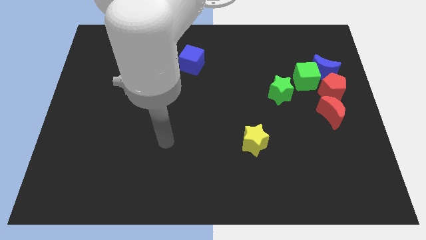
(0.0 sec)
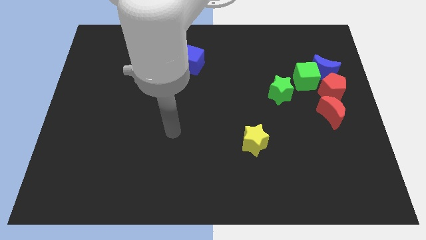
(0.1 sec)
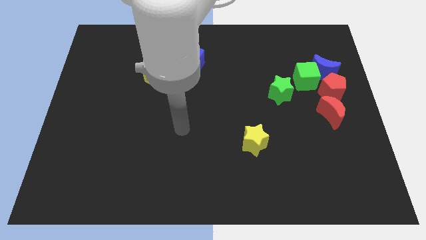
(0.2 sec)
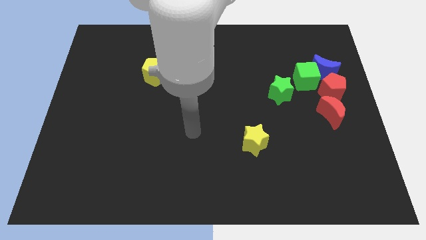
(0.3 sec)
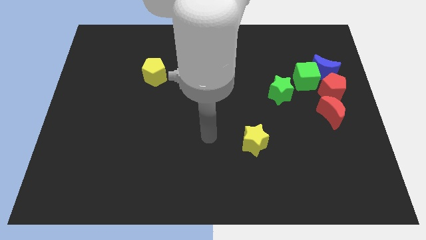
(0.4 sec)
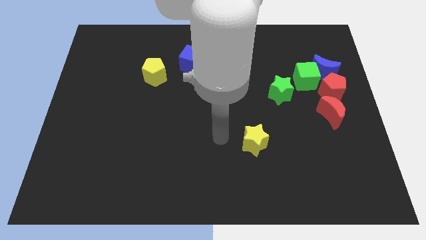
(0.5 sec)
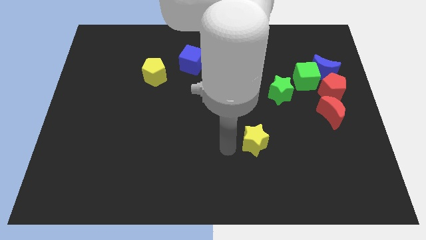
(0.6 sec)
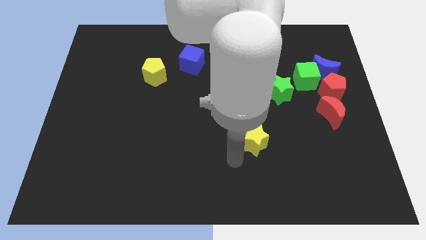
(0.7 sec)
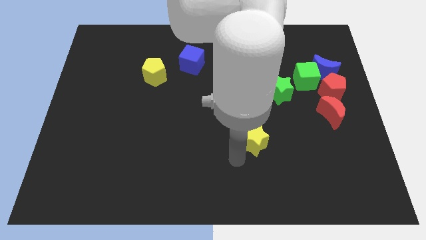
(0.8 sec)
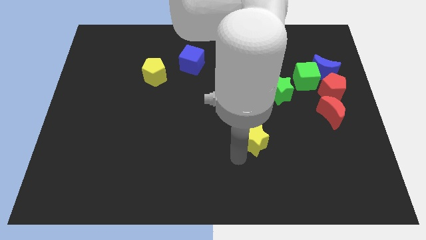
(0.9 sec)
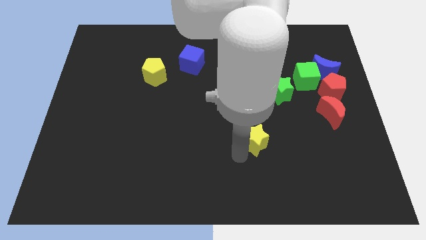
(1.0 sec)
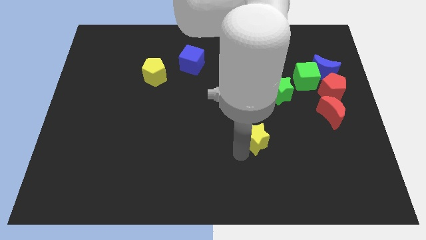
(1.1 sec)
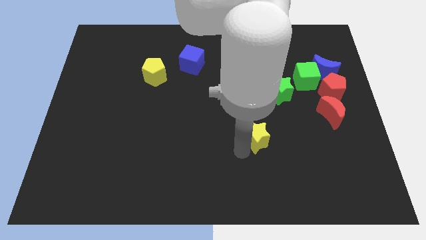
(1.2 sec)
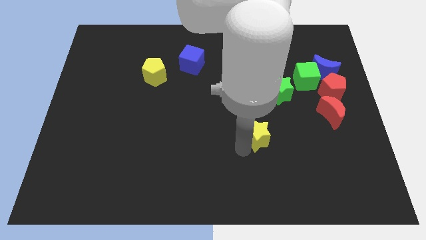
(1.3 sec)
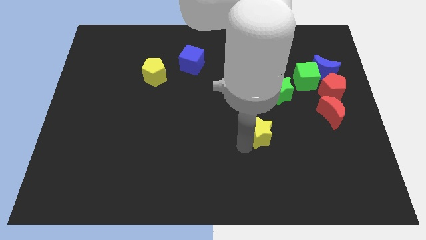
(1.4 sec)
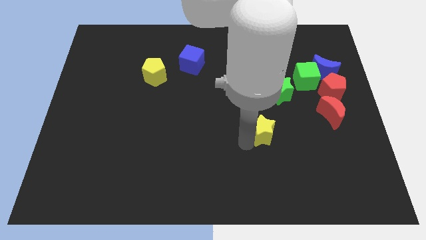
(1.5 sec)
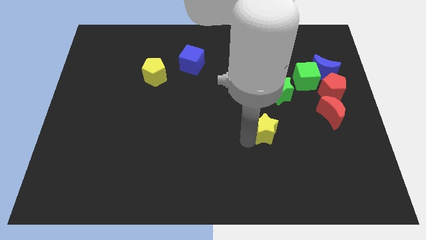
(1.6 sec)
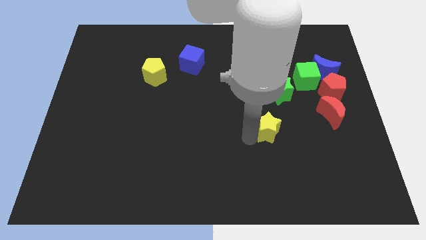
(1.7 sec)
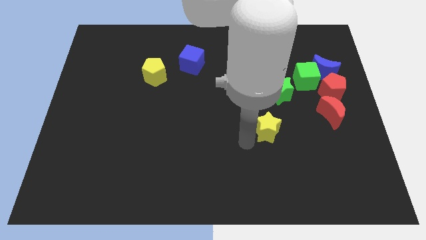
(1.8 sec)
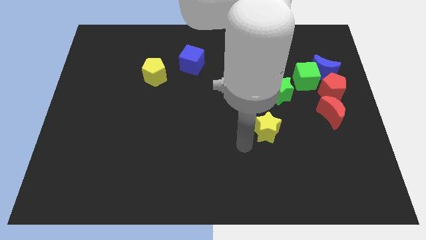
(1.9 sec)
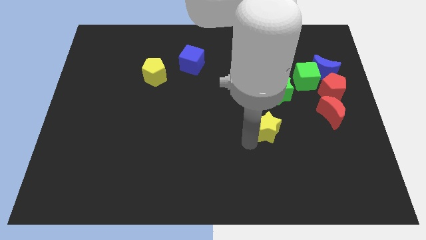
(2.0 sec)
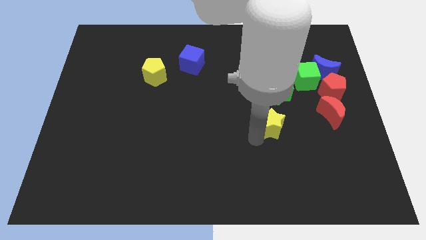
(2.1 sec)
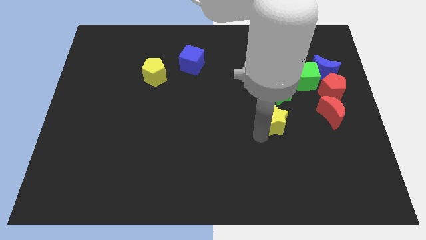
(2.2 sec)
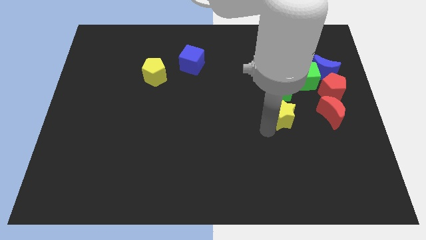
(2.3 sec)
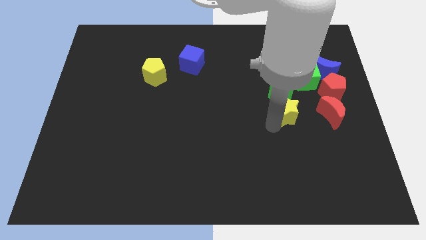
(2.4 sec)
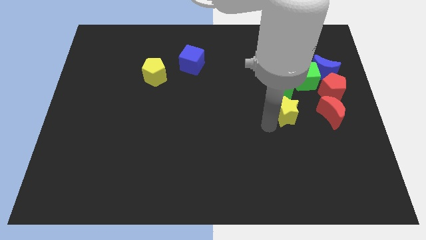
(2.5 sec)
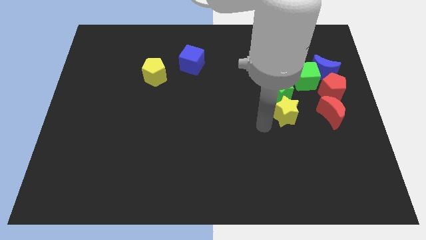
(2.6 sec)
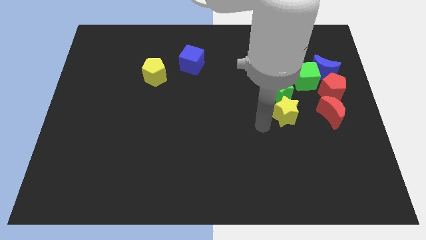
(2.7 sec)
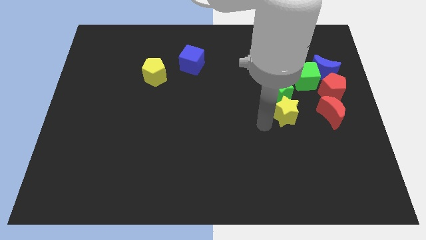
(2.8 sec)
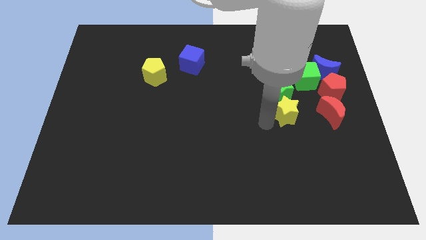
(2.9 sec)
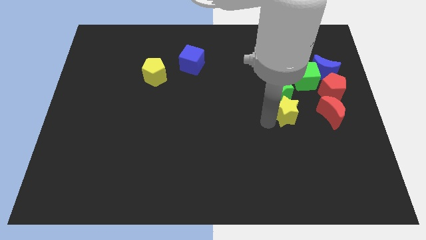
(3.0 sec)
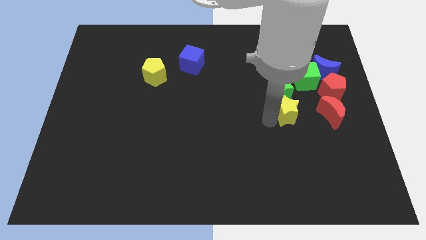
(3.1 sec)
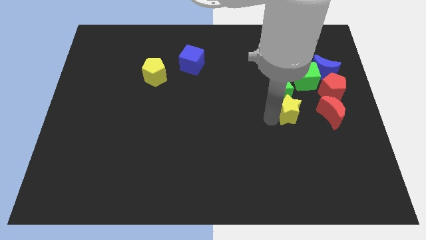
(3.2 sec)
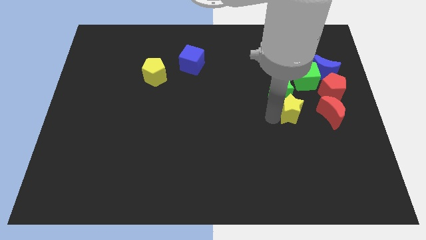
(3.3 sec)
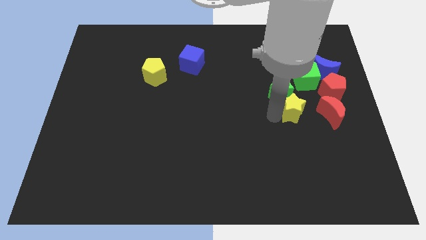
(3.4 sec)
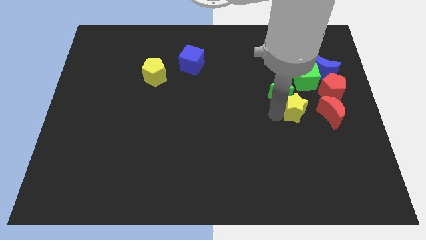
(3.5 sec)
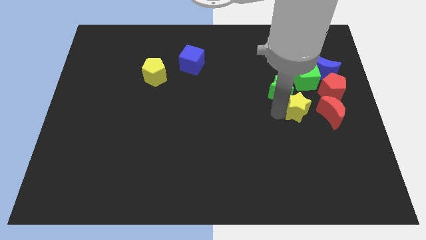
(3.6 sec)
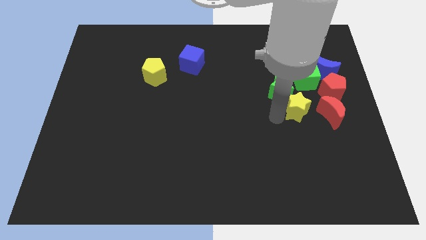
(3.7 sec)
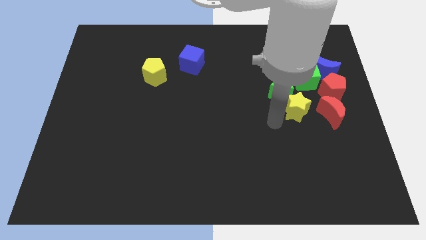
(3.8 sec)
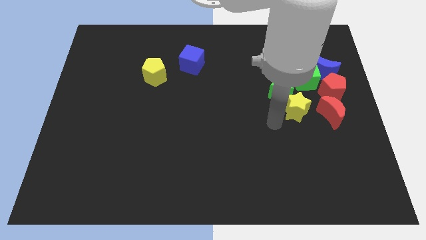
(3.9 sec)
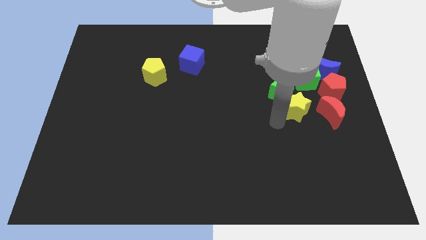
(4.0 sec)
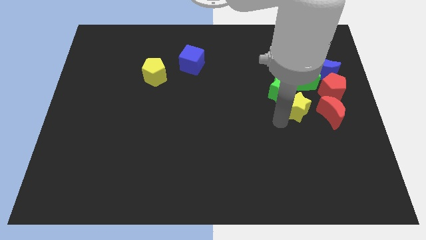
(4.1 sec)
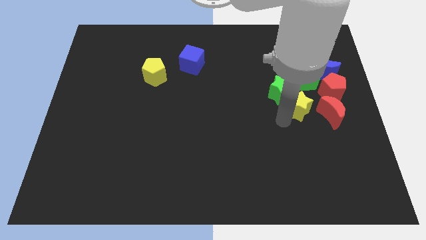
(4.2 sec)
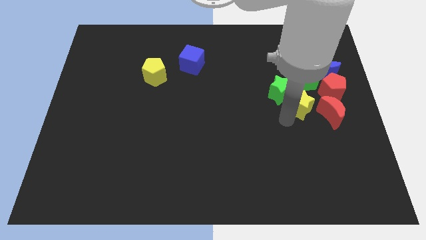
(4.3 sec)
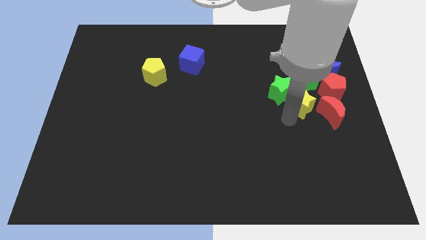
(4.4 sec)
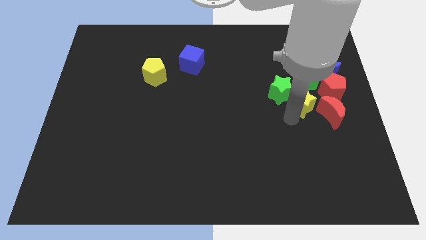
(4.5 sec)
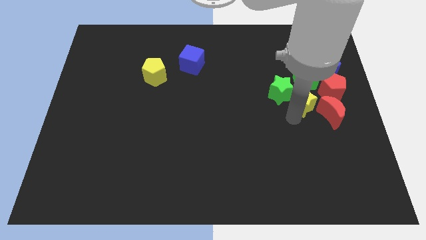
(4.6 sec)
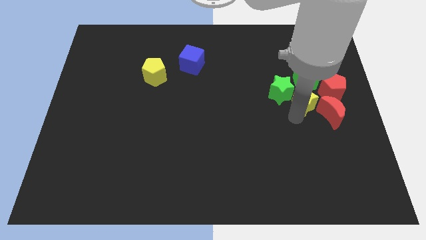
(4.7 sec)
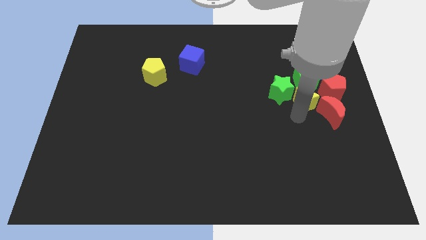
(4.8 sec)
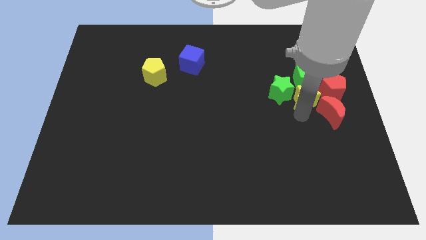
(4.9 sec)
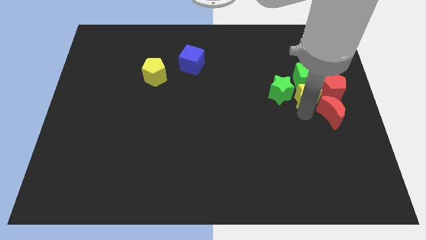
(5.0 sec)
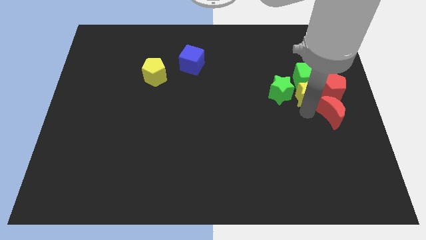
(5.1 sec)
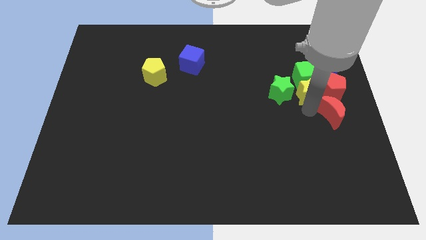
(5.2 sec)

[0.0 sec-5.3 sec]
push the yellow star to the red pentagon

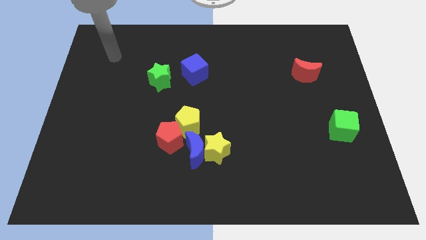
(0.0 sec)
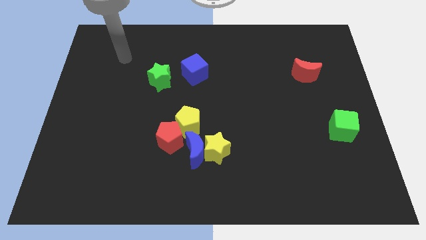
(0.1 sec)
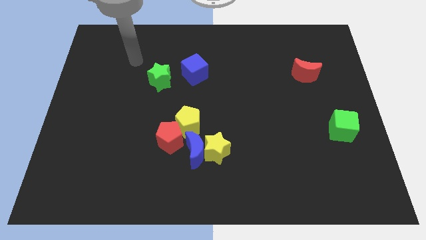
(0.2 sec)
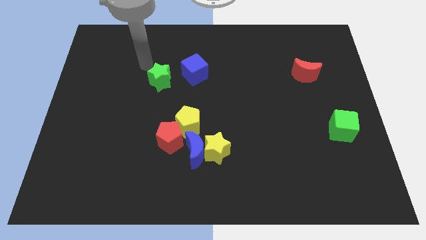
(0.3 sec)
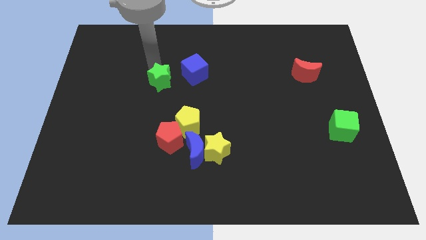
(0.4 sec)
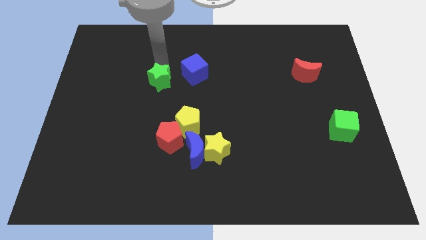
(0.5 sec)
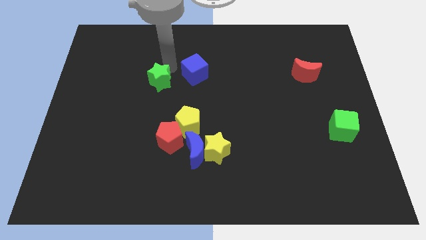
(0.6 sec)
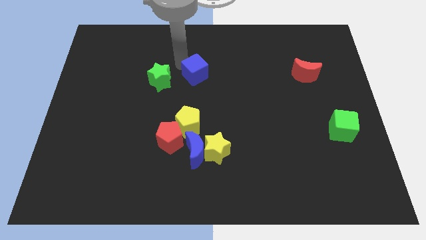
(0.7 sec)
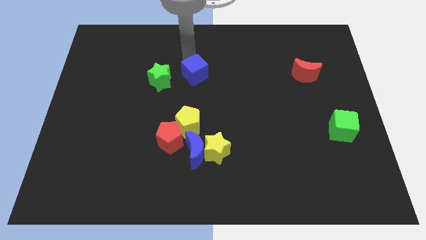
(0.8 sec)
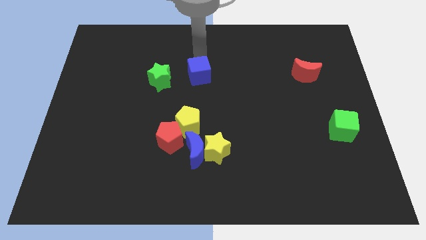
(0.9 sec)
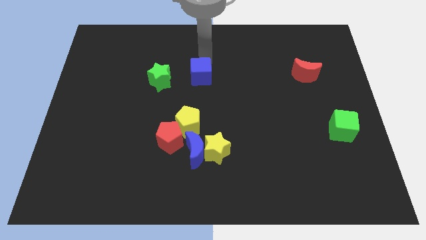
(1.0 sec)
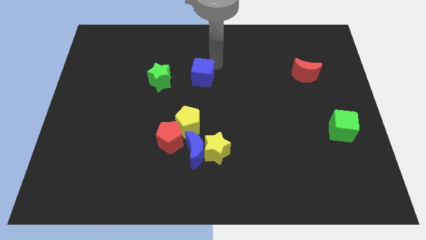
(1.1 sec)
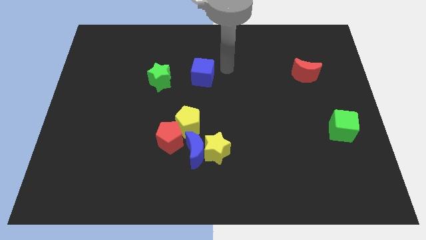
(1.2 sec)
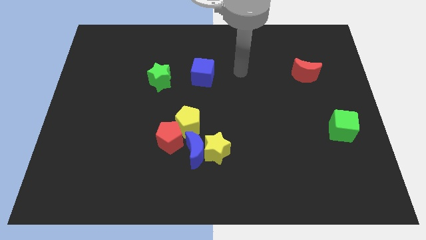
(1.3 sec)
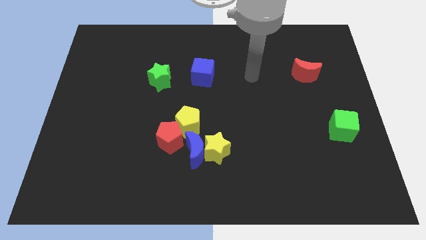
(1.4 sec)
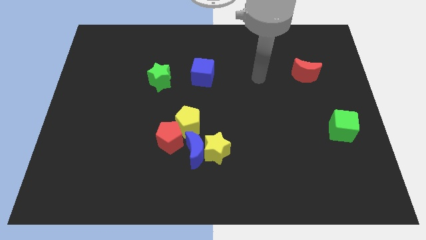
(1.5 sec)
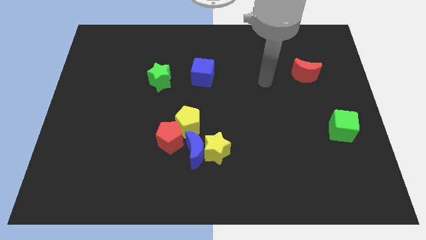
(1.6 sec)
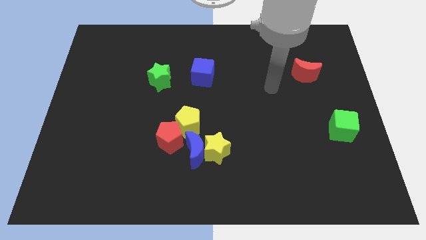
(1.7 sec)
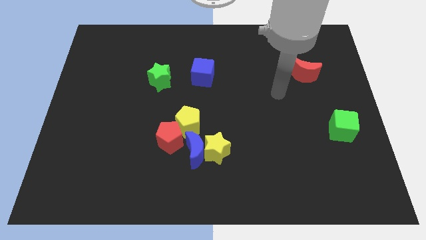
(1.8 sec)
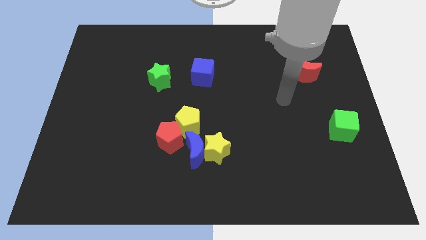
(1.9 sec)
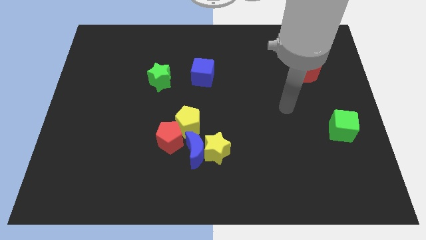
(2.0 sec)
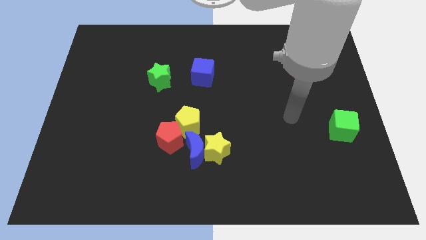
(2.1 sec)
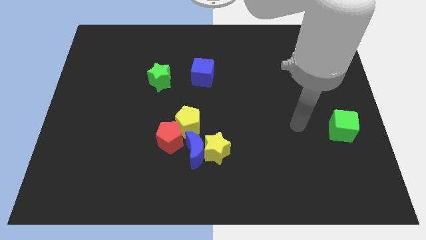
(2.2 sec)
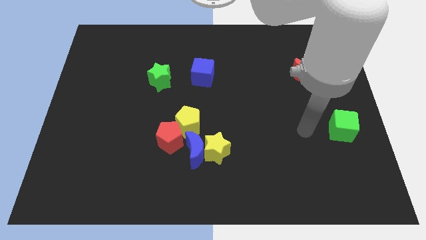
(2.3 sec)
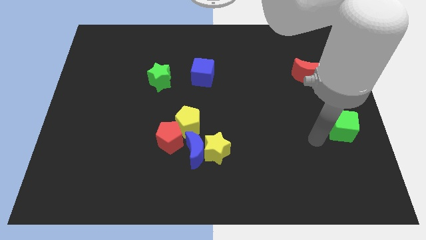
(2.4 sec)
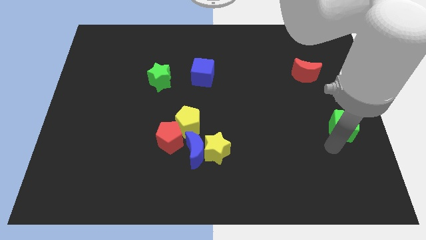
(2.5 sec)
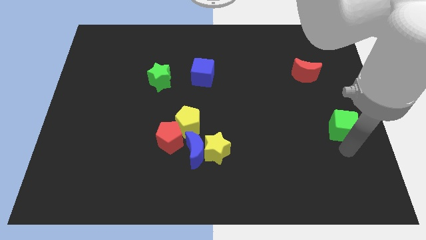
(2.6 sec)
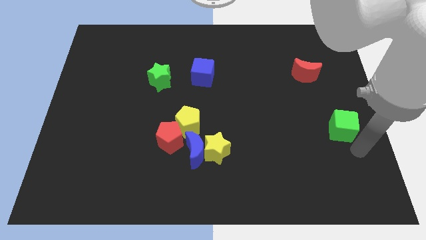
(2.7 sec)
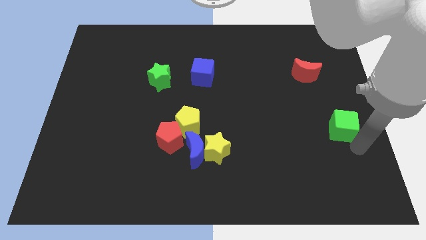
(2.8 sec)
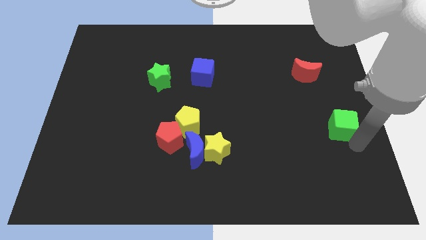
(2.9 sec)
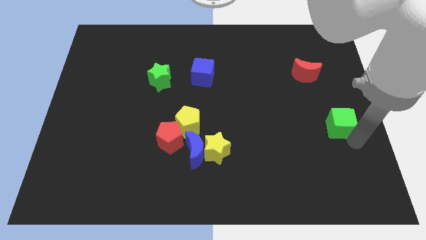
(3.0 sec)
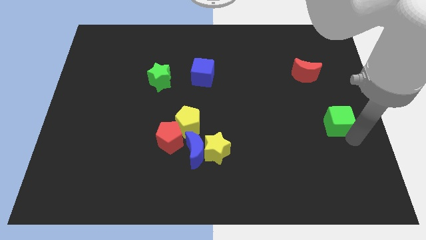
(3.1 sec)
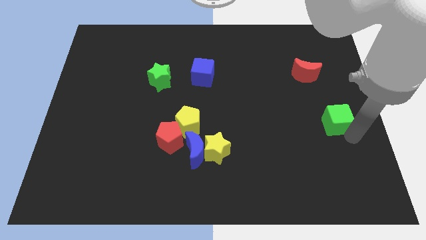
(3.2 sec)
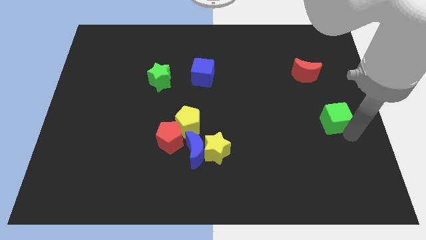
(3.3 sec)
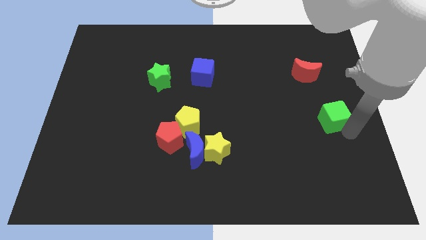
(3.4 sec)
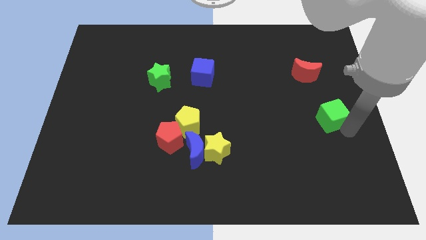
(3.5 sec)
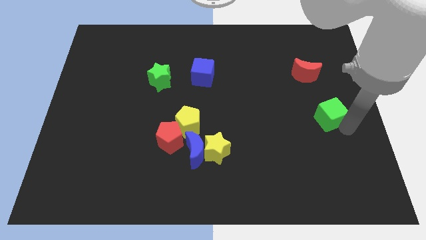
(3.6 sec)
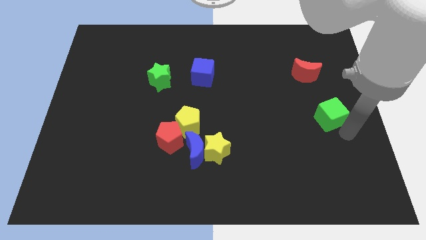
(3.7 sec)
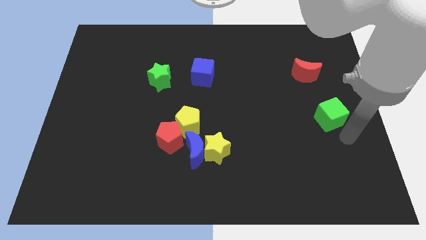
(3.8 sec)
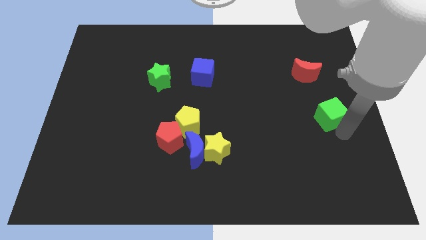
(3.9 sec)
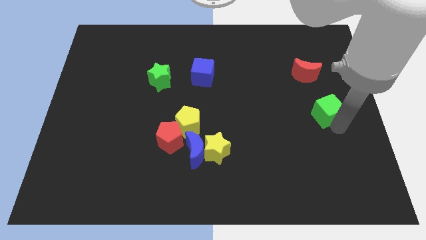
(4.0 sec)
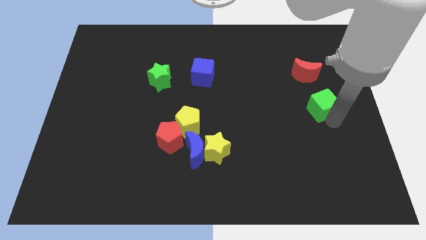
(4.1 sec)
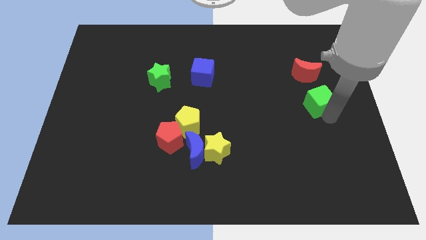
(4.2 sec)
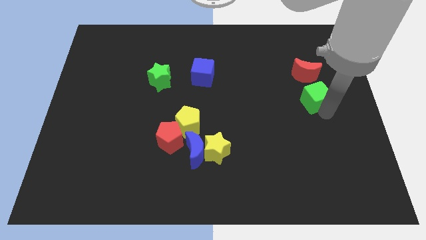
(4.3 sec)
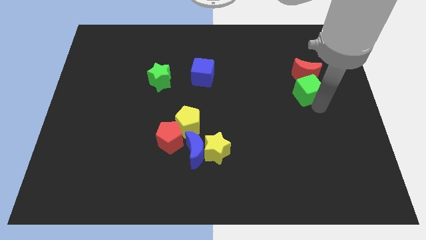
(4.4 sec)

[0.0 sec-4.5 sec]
put the green cube towards the red moon
